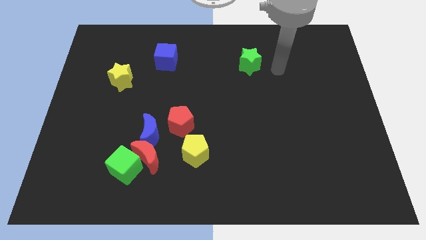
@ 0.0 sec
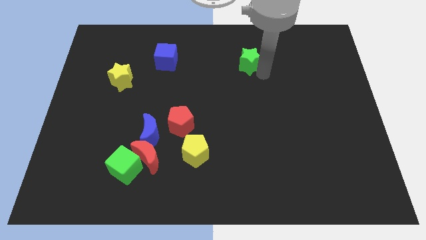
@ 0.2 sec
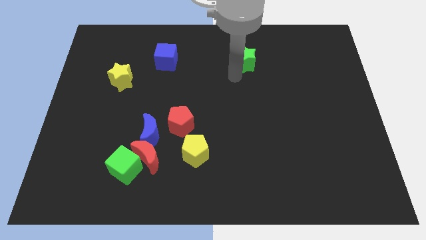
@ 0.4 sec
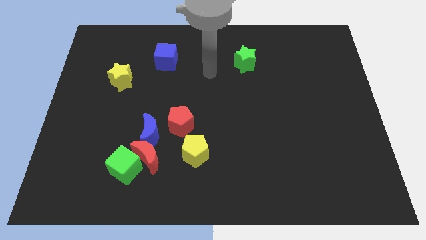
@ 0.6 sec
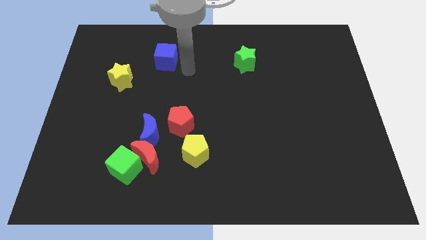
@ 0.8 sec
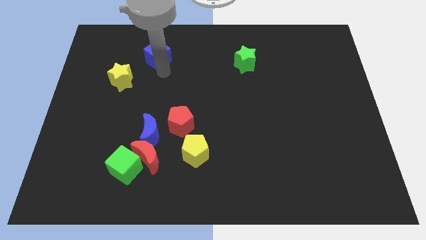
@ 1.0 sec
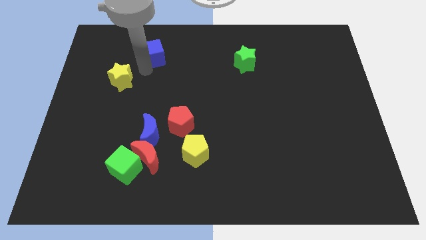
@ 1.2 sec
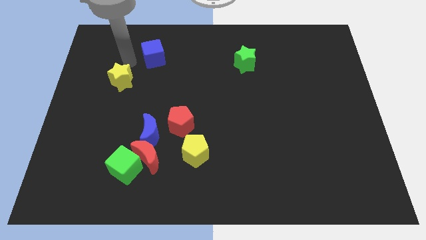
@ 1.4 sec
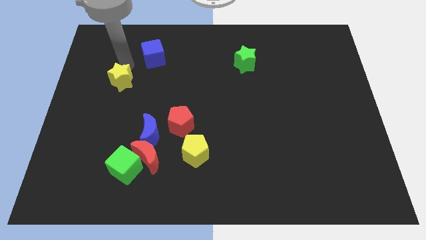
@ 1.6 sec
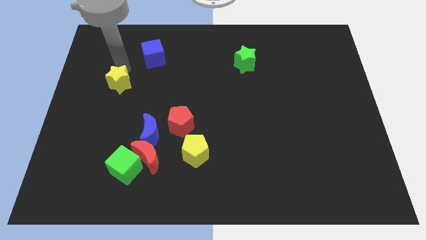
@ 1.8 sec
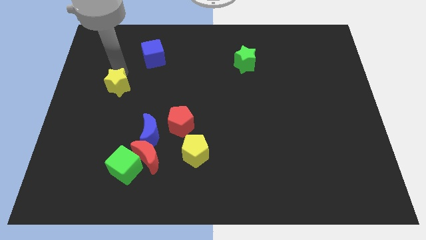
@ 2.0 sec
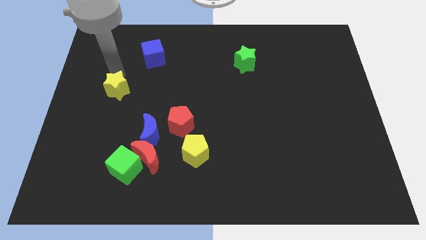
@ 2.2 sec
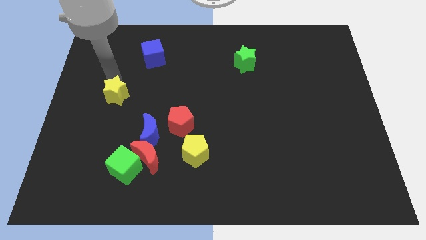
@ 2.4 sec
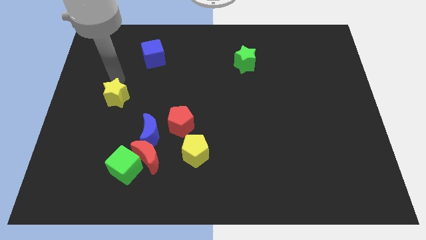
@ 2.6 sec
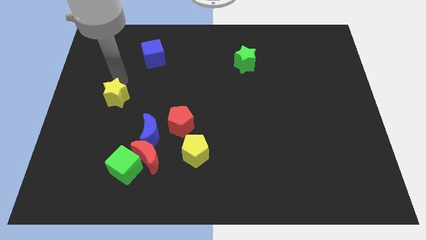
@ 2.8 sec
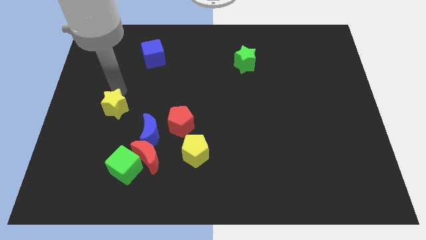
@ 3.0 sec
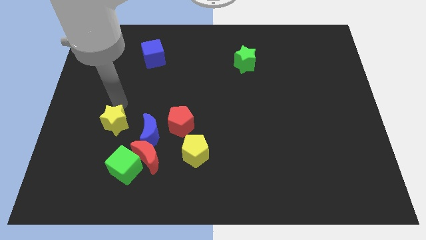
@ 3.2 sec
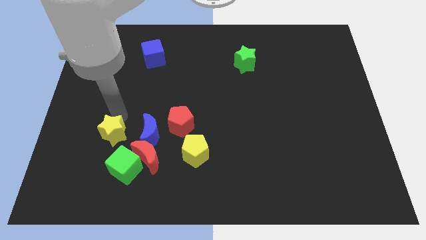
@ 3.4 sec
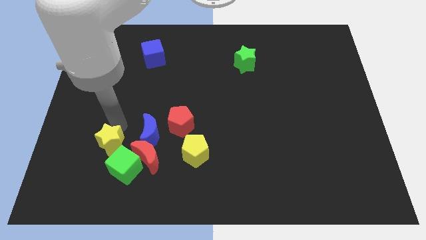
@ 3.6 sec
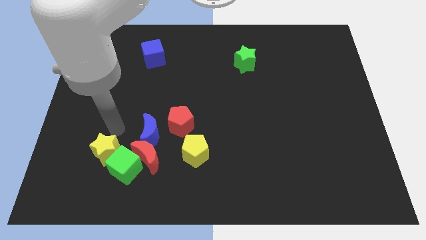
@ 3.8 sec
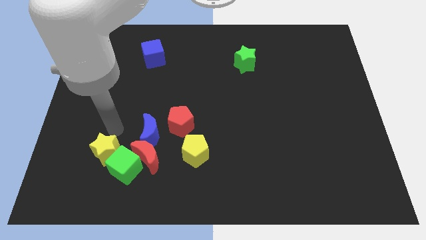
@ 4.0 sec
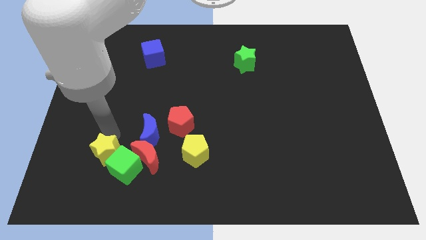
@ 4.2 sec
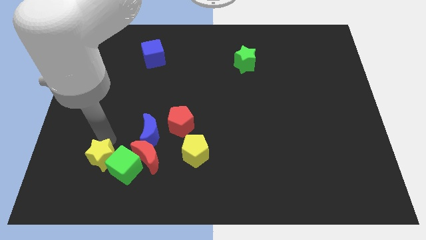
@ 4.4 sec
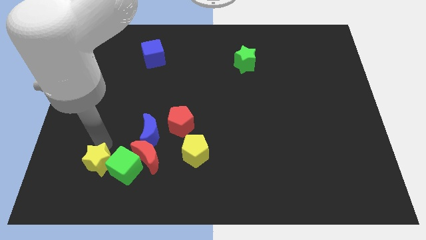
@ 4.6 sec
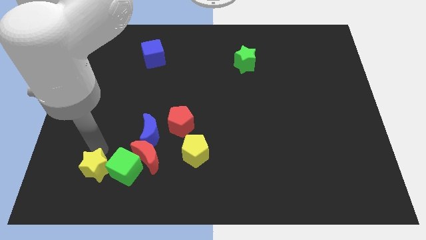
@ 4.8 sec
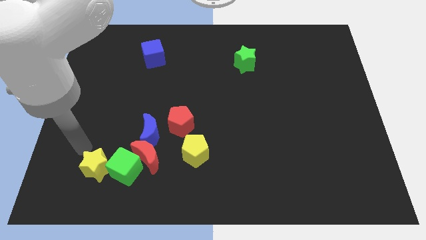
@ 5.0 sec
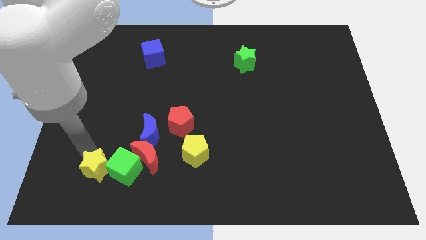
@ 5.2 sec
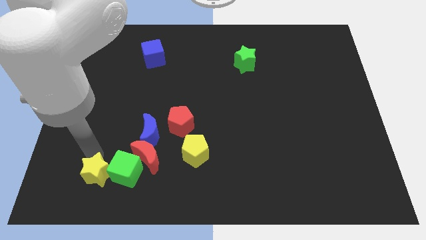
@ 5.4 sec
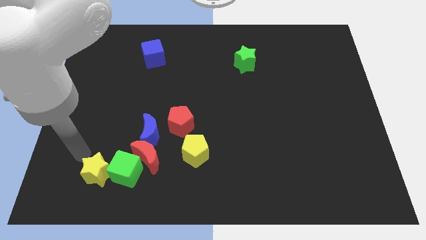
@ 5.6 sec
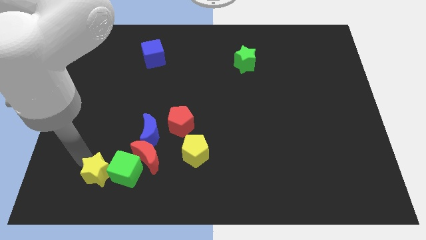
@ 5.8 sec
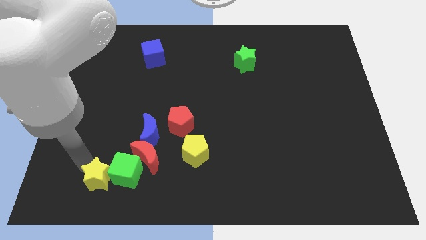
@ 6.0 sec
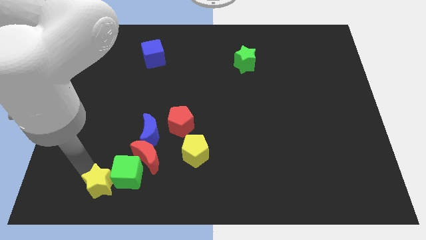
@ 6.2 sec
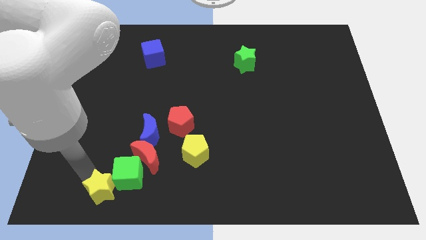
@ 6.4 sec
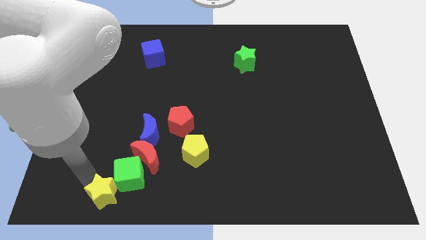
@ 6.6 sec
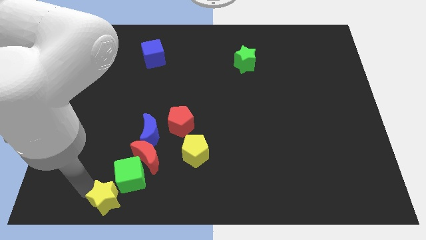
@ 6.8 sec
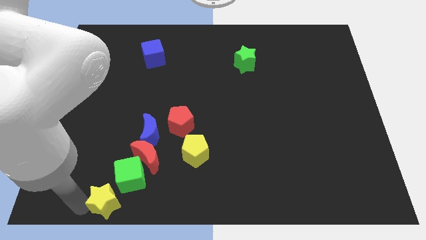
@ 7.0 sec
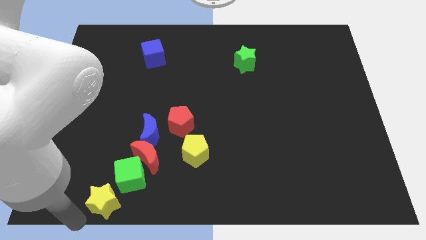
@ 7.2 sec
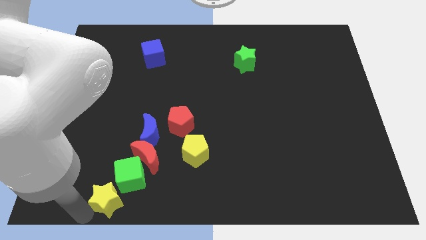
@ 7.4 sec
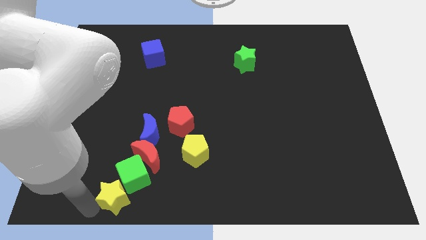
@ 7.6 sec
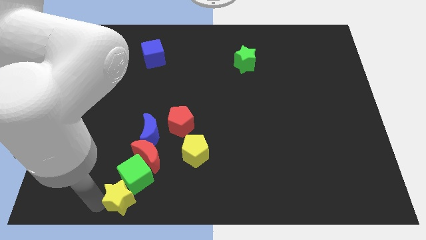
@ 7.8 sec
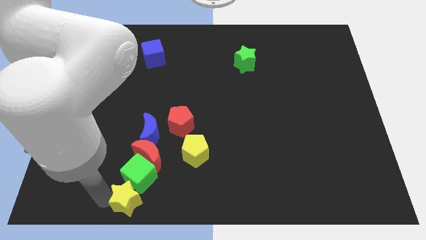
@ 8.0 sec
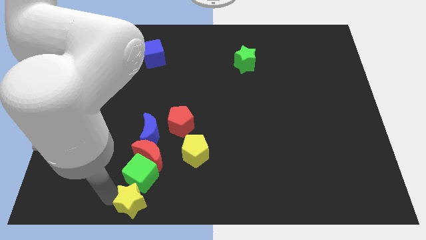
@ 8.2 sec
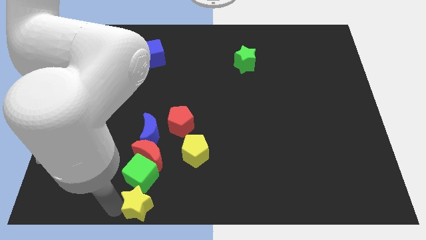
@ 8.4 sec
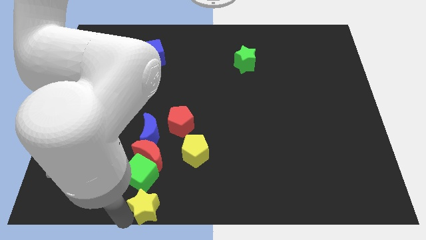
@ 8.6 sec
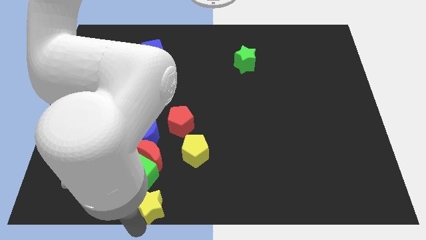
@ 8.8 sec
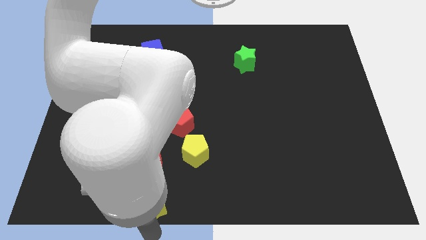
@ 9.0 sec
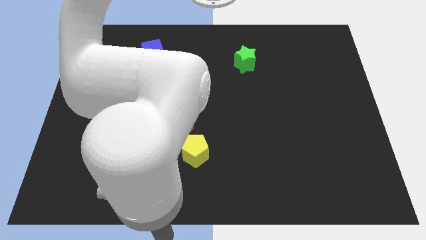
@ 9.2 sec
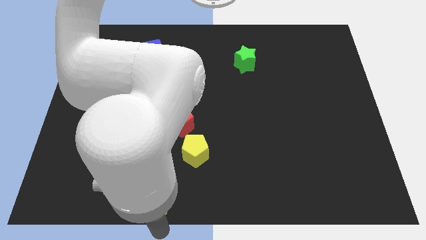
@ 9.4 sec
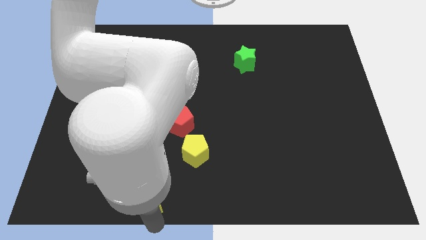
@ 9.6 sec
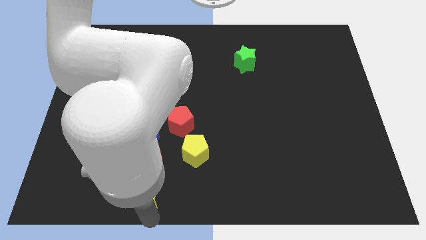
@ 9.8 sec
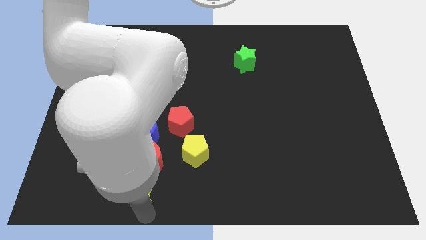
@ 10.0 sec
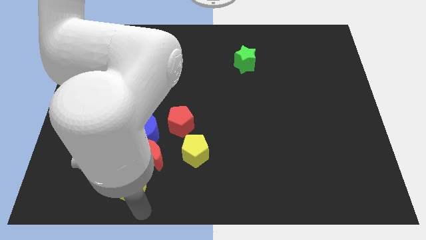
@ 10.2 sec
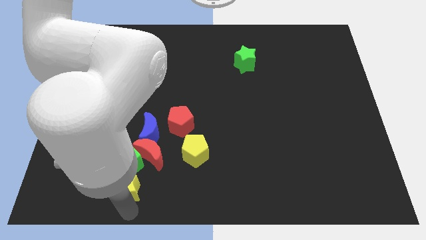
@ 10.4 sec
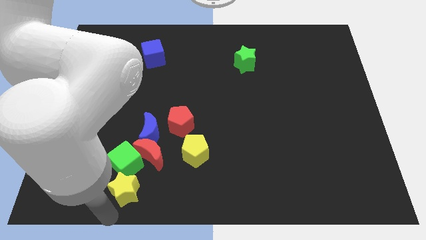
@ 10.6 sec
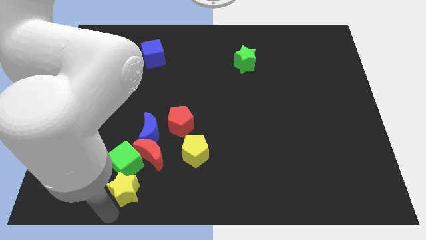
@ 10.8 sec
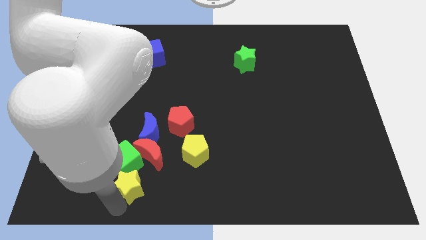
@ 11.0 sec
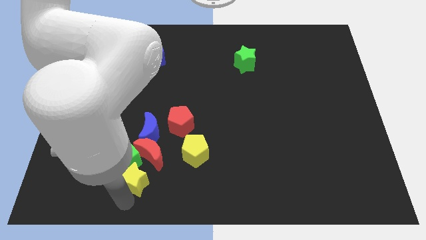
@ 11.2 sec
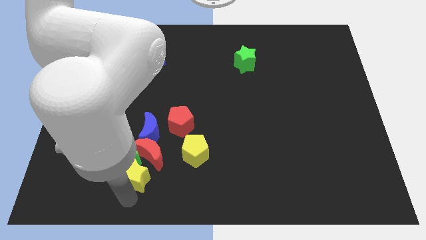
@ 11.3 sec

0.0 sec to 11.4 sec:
slide the yellow star towards the red moon
